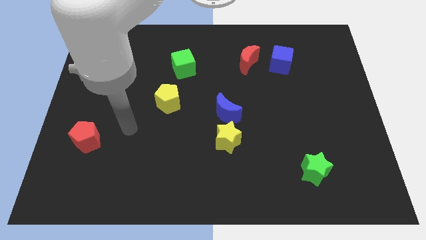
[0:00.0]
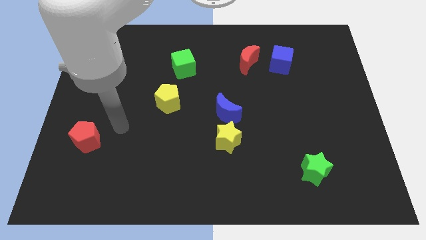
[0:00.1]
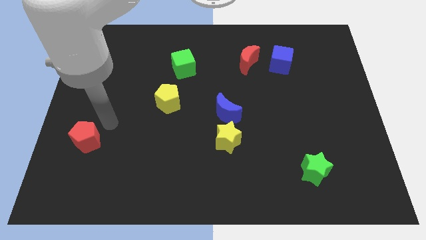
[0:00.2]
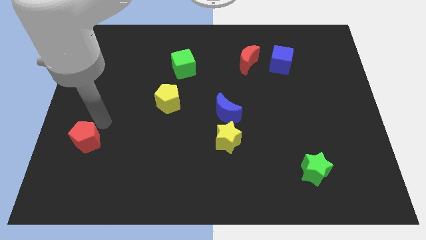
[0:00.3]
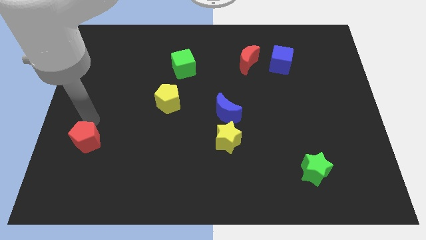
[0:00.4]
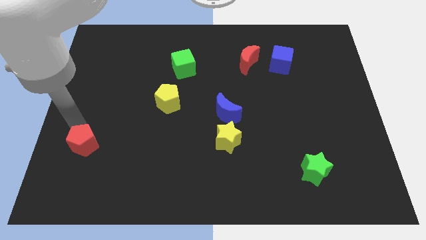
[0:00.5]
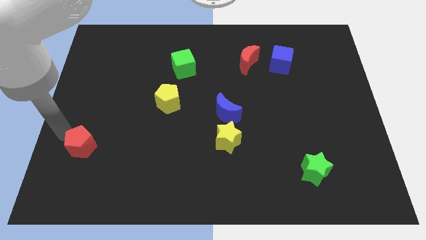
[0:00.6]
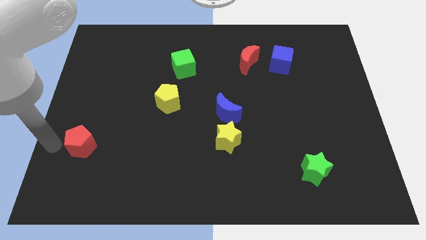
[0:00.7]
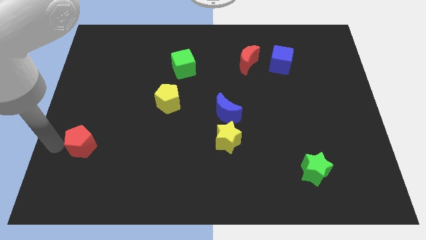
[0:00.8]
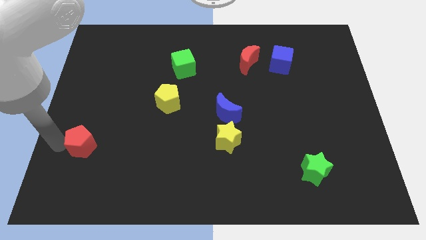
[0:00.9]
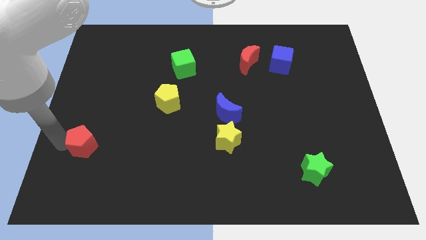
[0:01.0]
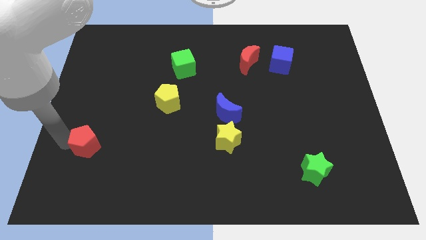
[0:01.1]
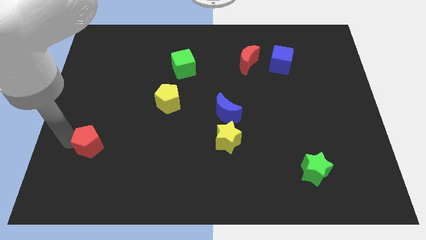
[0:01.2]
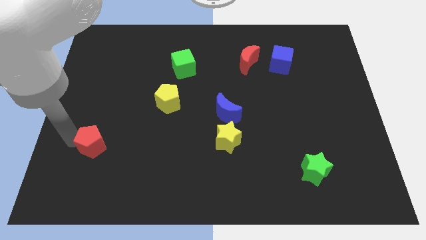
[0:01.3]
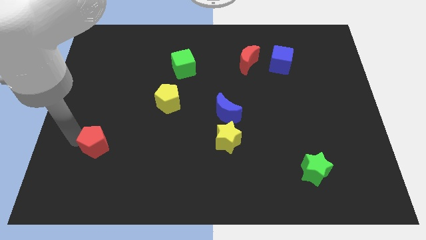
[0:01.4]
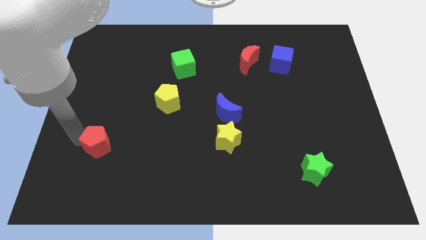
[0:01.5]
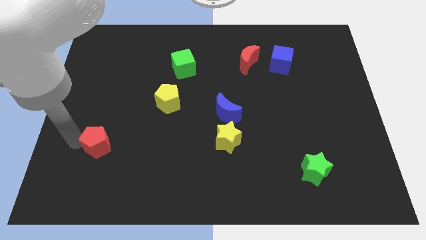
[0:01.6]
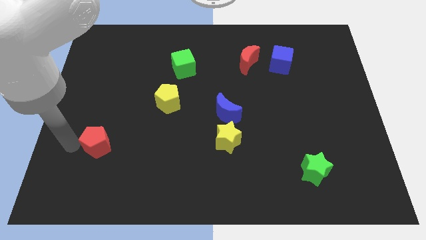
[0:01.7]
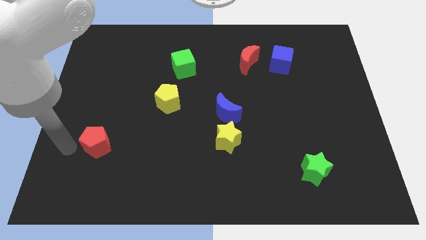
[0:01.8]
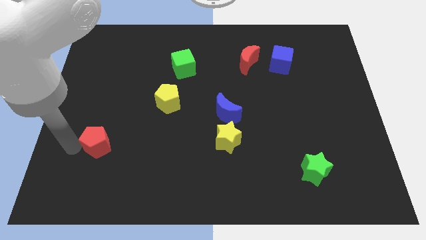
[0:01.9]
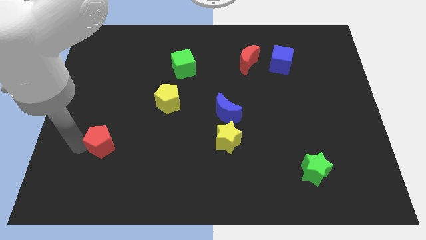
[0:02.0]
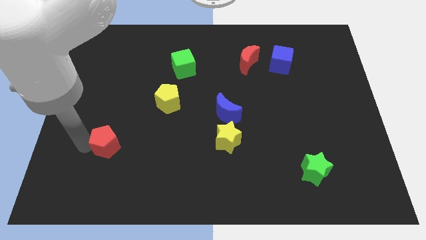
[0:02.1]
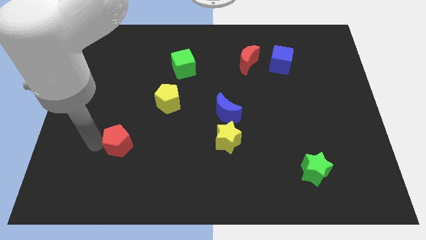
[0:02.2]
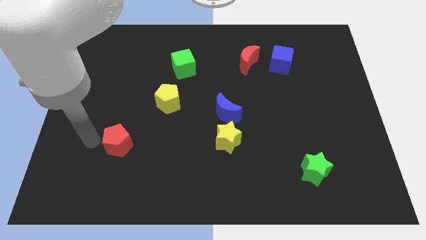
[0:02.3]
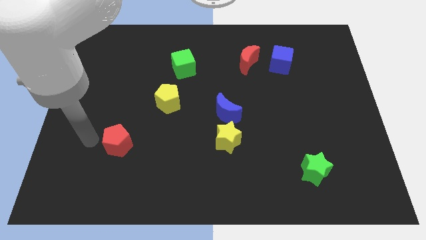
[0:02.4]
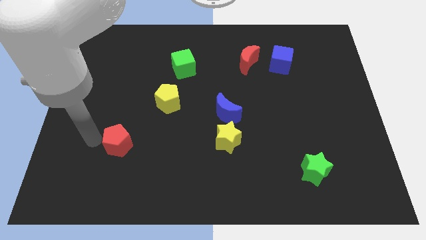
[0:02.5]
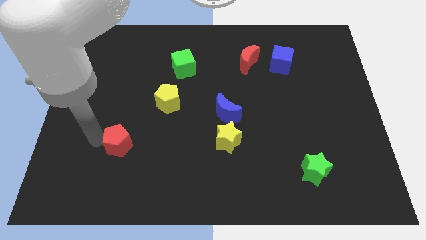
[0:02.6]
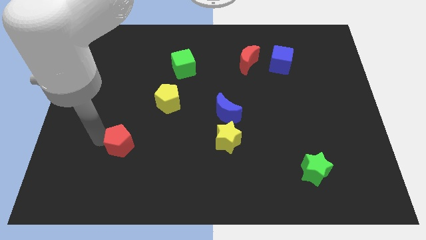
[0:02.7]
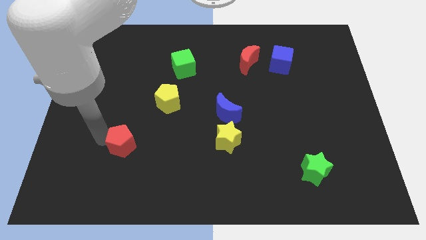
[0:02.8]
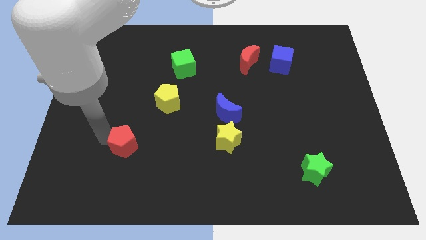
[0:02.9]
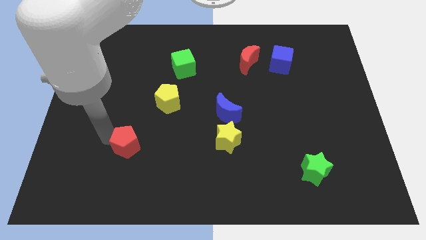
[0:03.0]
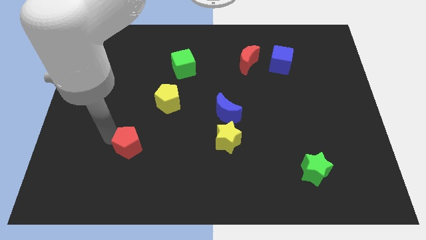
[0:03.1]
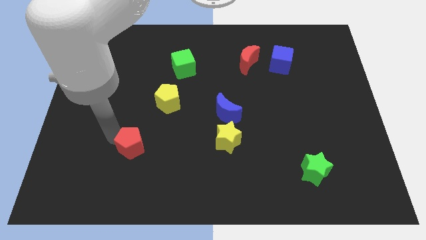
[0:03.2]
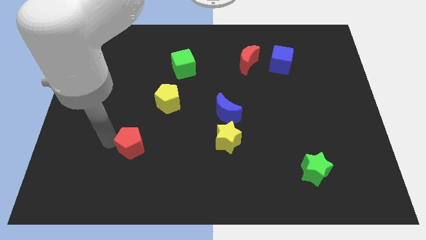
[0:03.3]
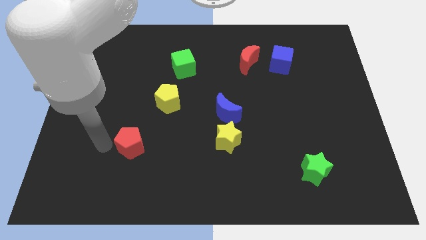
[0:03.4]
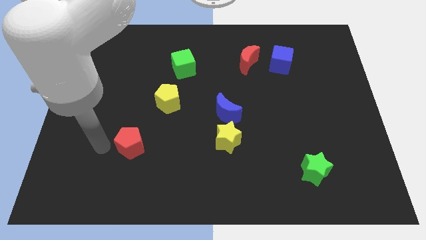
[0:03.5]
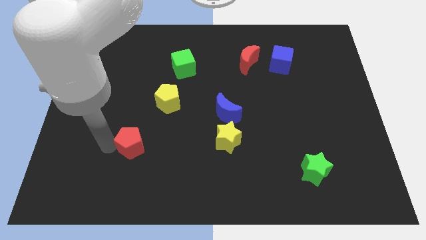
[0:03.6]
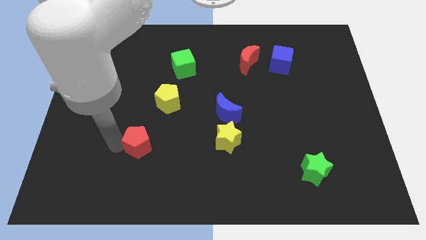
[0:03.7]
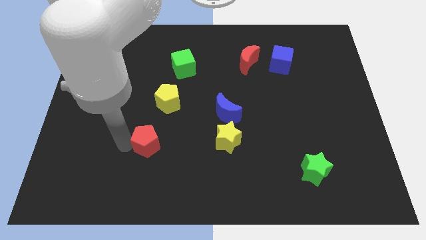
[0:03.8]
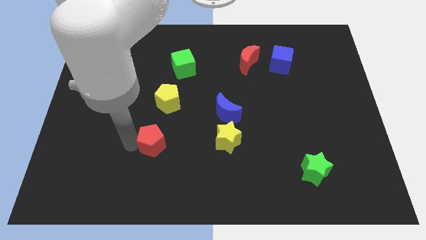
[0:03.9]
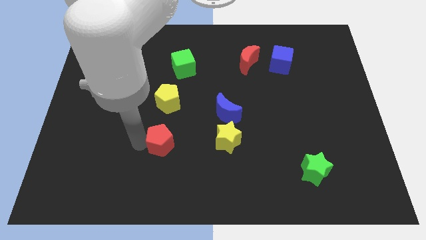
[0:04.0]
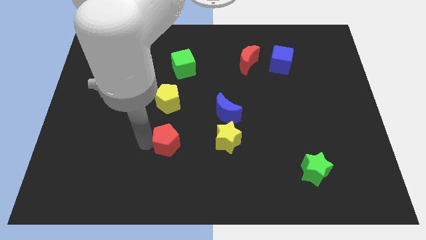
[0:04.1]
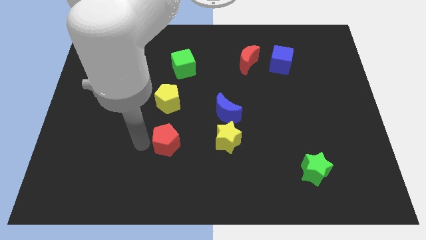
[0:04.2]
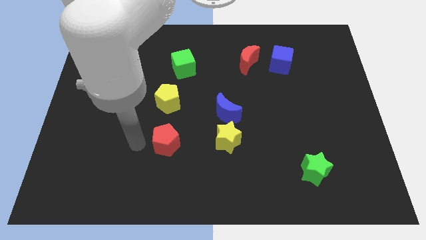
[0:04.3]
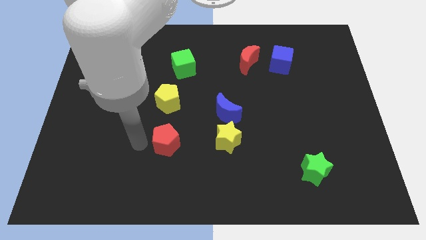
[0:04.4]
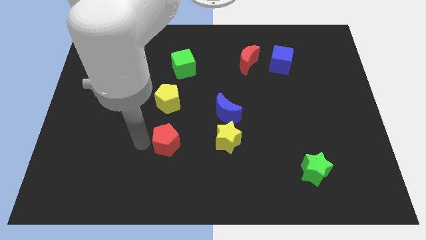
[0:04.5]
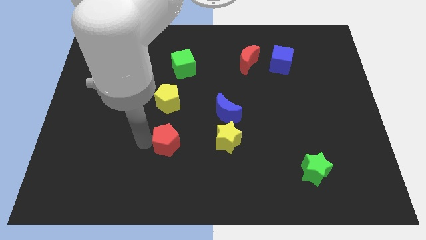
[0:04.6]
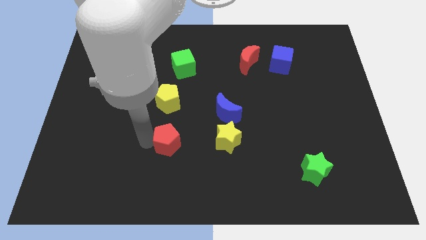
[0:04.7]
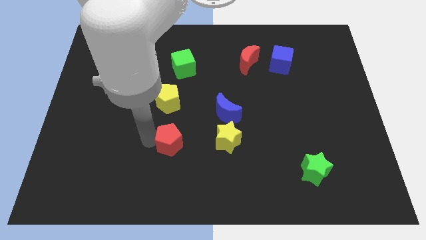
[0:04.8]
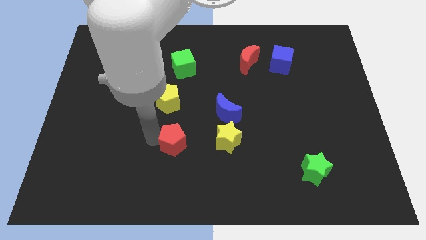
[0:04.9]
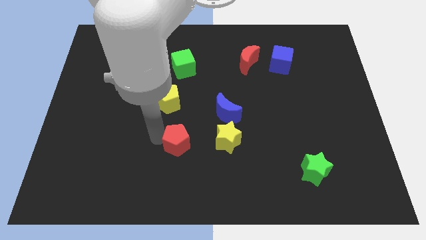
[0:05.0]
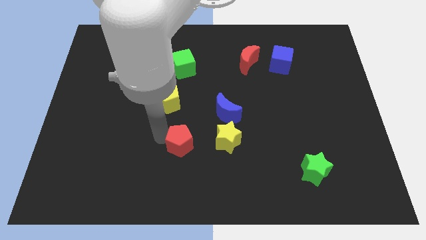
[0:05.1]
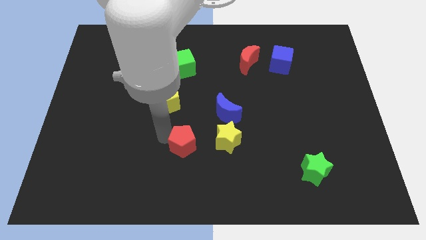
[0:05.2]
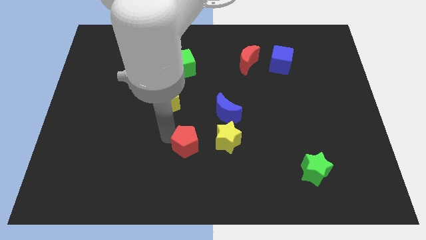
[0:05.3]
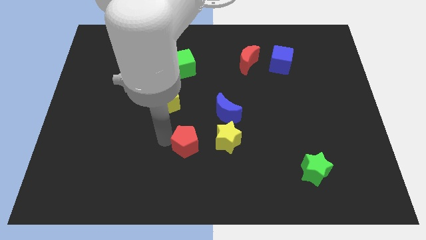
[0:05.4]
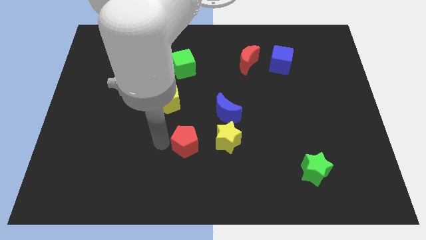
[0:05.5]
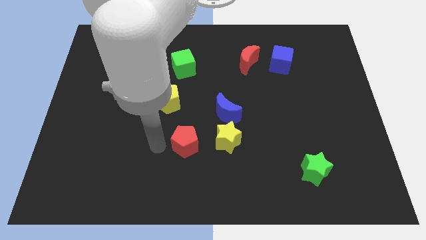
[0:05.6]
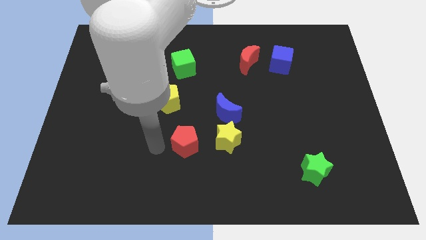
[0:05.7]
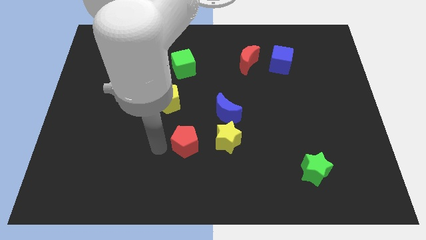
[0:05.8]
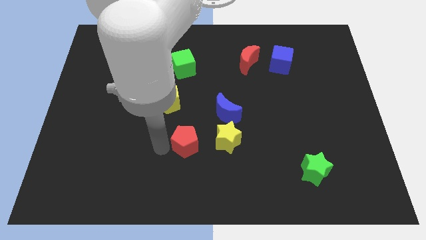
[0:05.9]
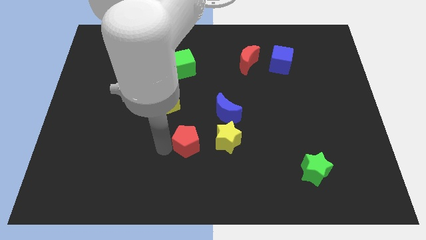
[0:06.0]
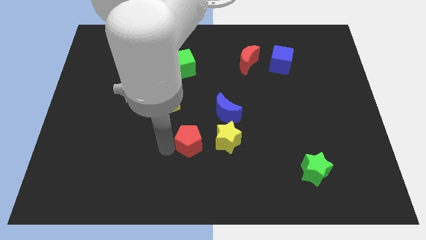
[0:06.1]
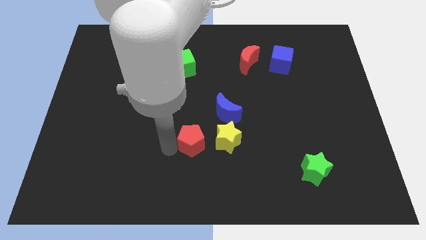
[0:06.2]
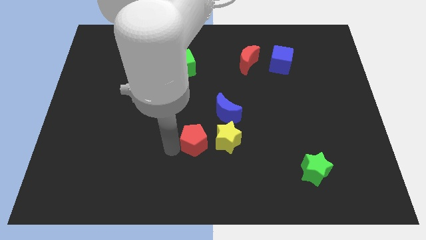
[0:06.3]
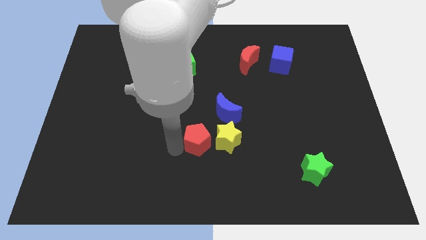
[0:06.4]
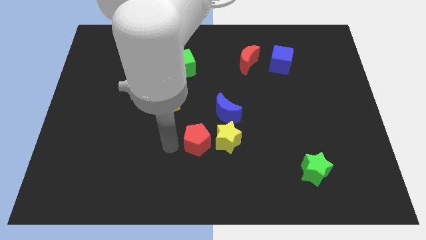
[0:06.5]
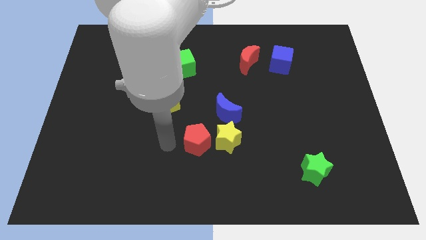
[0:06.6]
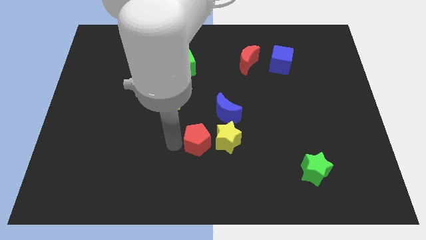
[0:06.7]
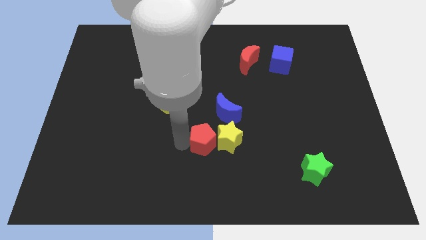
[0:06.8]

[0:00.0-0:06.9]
move the red pentagon close to the yellow star

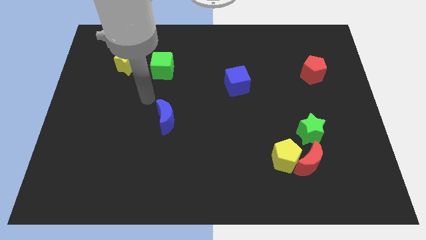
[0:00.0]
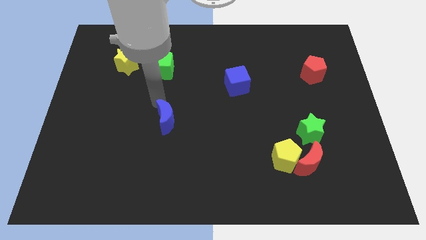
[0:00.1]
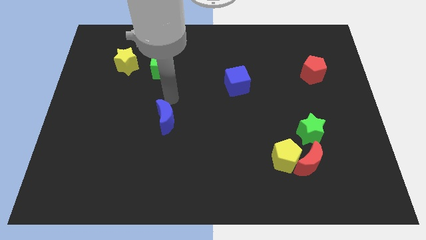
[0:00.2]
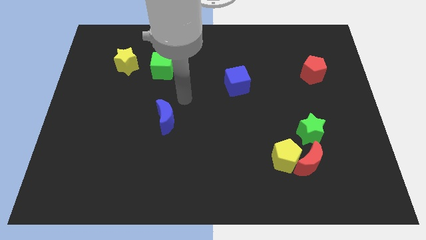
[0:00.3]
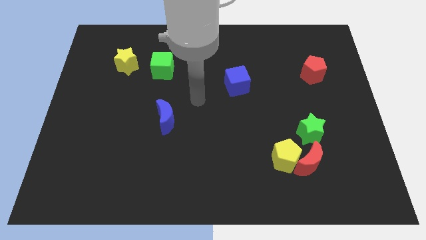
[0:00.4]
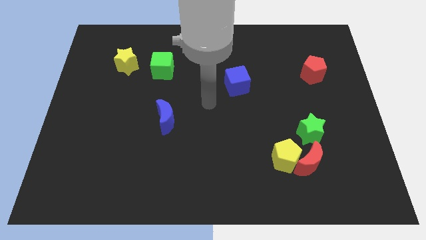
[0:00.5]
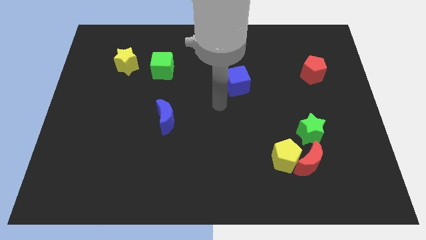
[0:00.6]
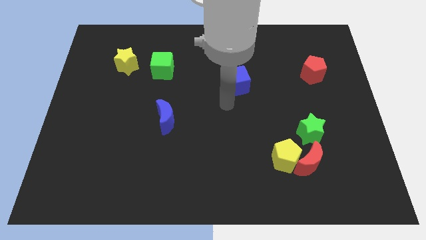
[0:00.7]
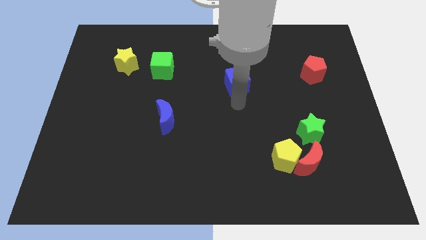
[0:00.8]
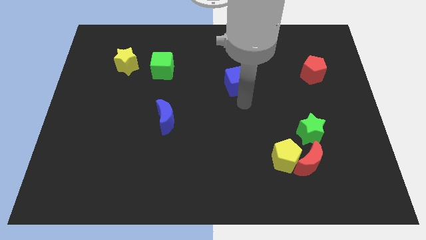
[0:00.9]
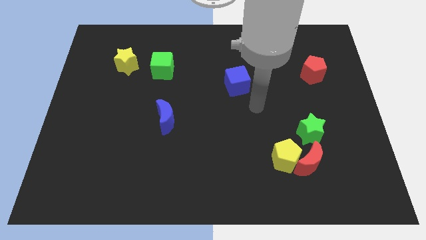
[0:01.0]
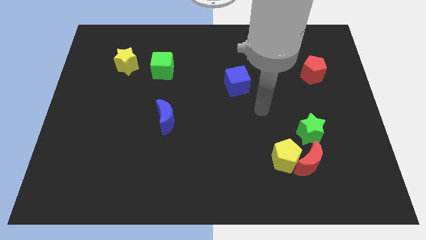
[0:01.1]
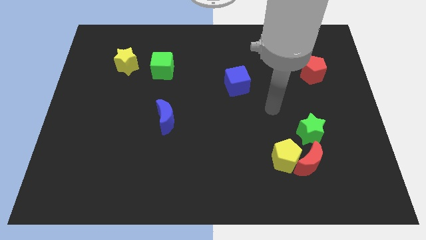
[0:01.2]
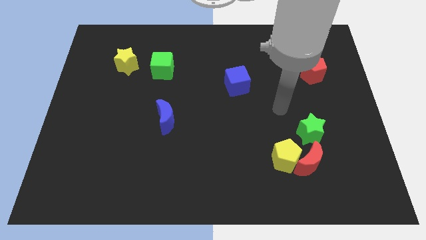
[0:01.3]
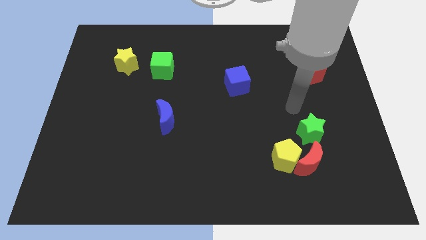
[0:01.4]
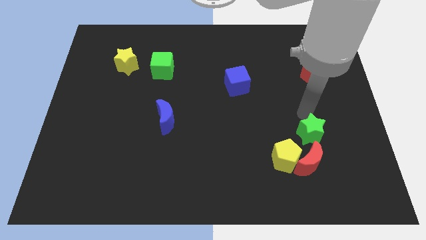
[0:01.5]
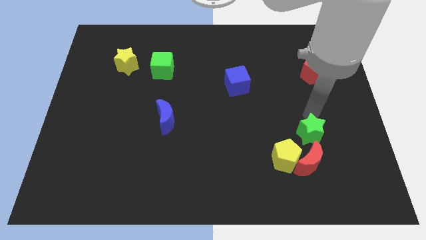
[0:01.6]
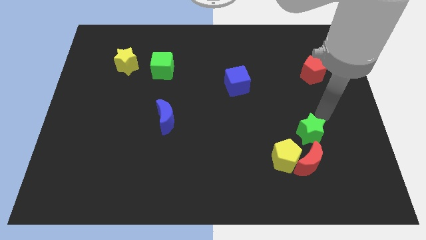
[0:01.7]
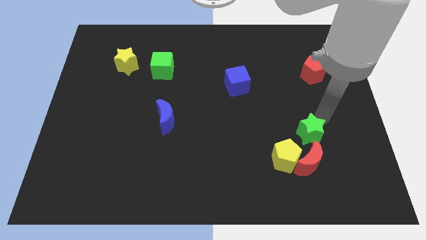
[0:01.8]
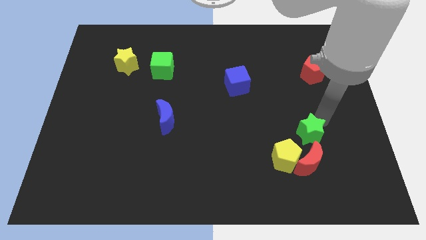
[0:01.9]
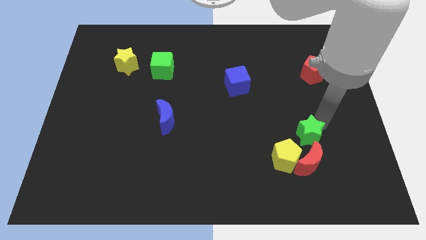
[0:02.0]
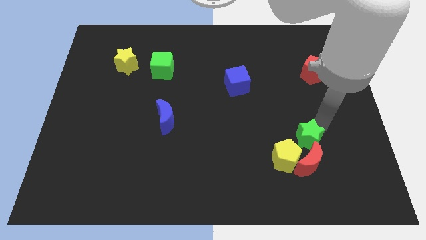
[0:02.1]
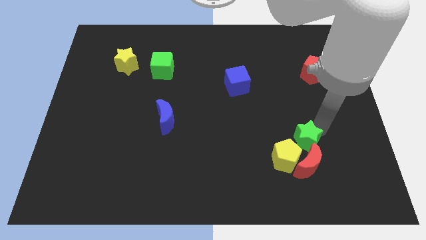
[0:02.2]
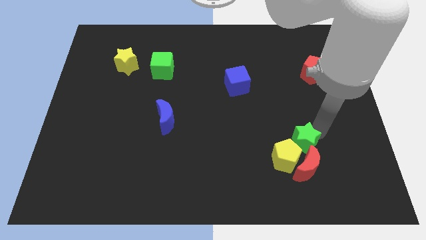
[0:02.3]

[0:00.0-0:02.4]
put the green star towards the yellow pentagon
